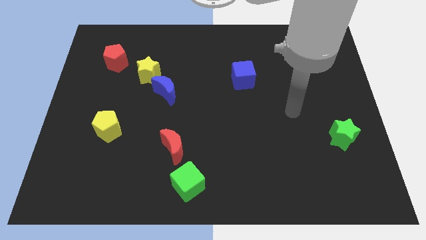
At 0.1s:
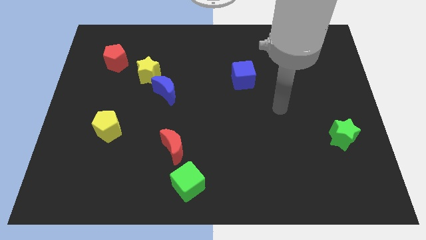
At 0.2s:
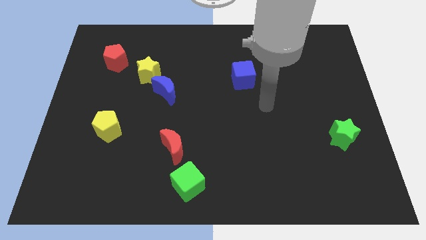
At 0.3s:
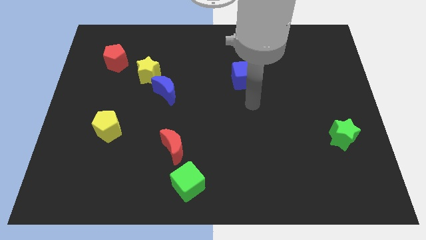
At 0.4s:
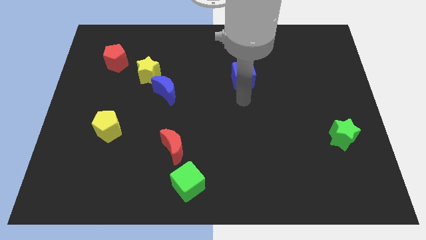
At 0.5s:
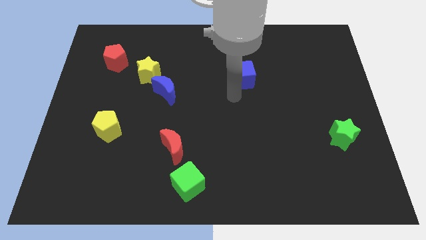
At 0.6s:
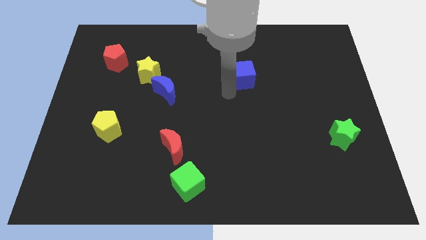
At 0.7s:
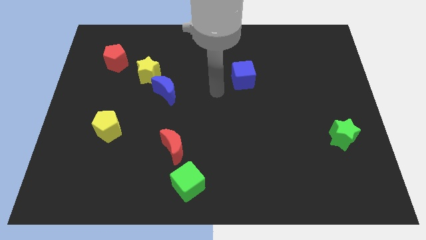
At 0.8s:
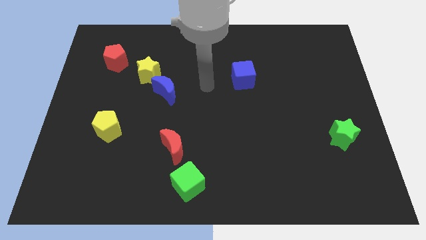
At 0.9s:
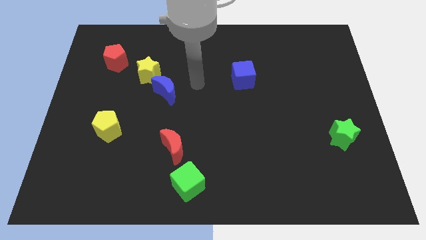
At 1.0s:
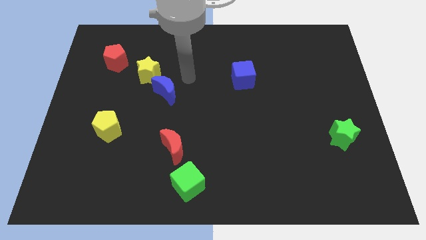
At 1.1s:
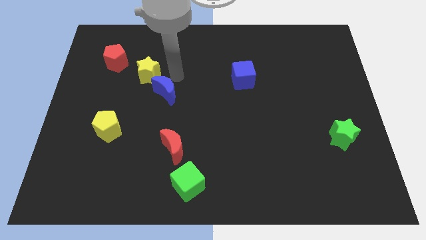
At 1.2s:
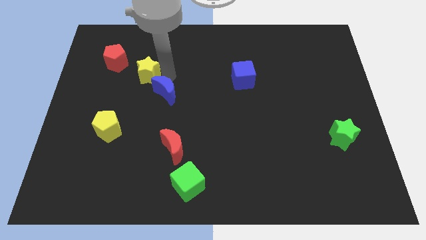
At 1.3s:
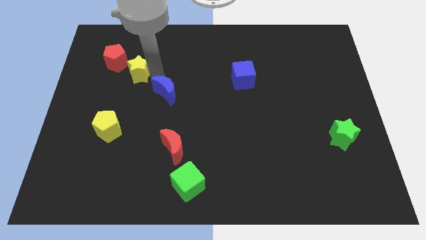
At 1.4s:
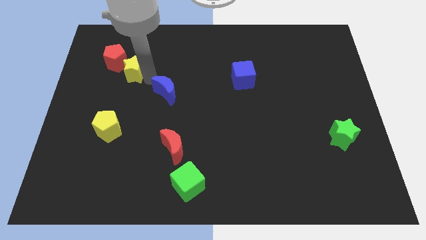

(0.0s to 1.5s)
move the blue moon away from the yellow star

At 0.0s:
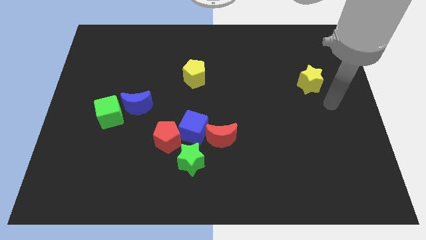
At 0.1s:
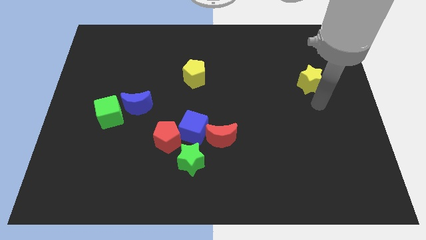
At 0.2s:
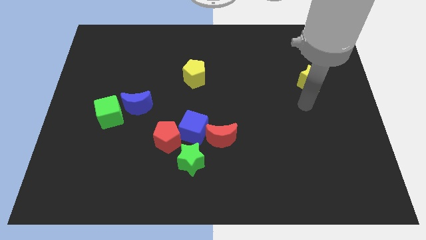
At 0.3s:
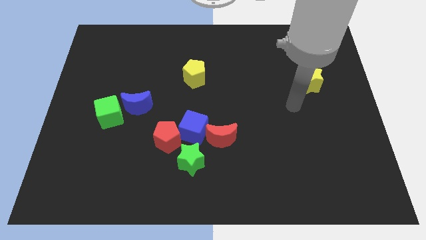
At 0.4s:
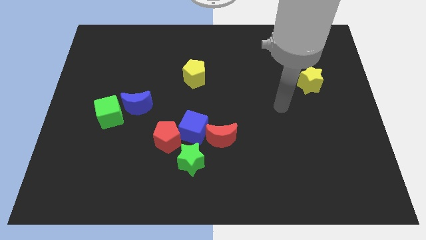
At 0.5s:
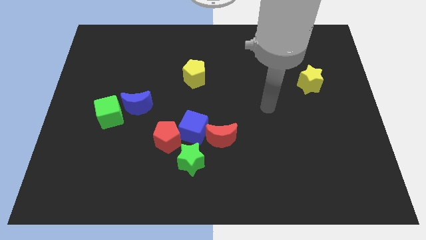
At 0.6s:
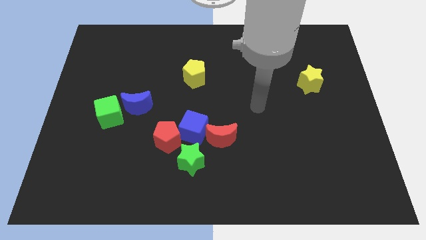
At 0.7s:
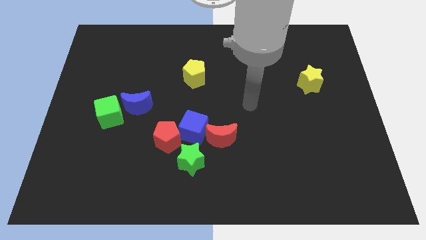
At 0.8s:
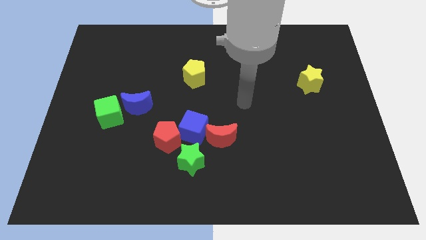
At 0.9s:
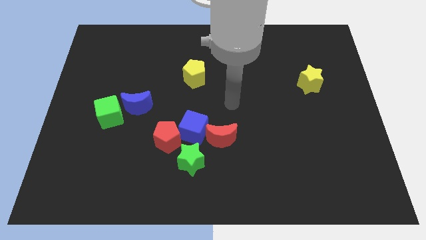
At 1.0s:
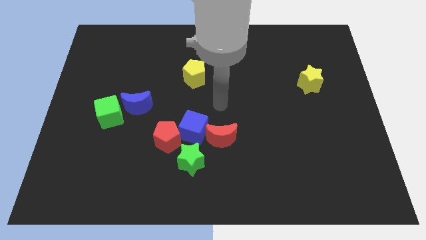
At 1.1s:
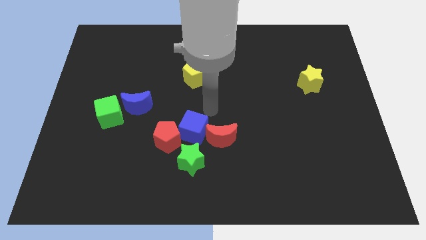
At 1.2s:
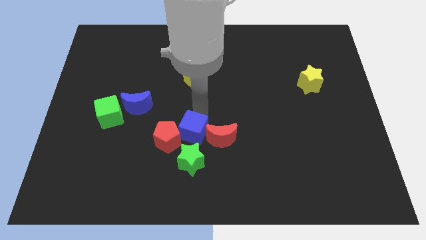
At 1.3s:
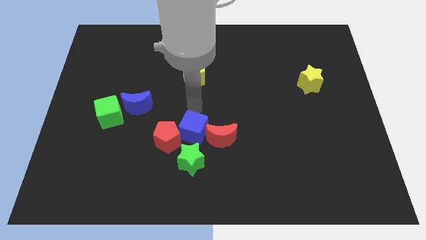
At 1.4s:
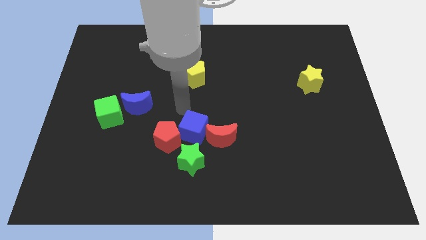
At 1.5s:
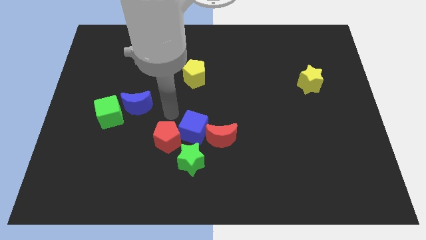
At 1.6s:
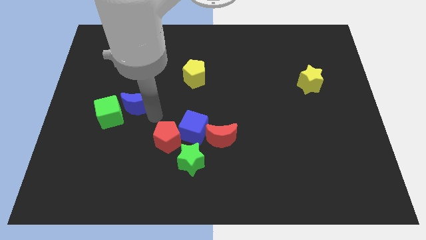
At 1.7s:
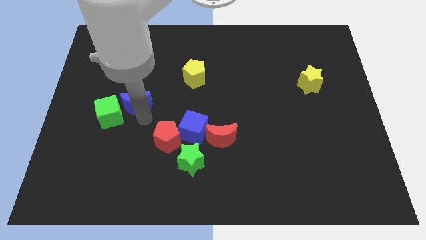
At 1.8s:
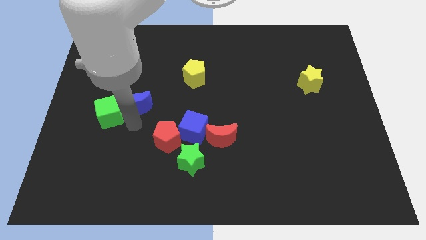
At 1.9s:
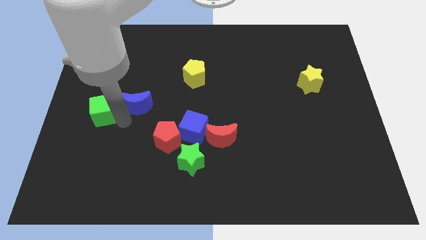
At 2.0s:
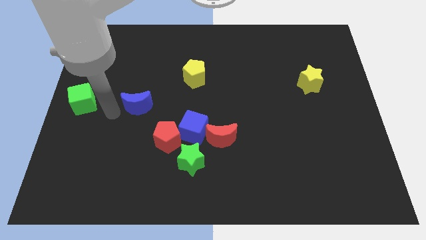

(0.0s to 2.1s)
separate the blue moon from the green cube

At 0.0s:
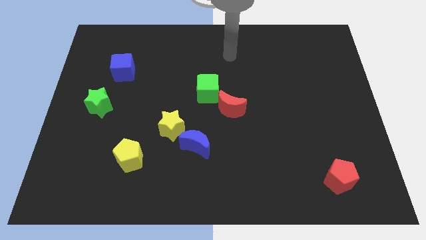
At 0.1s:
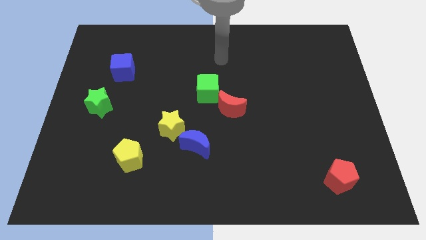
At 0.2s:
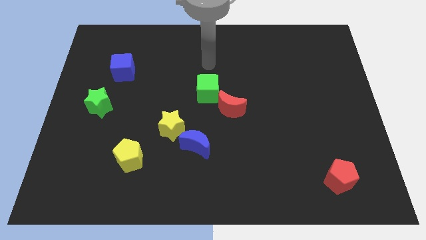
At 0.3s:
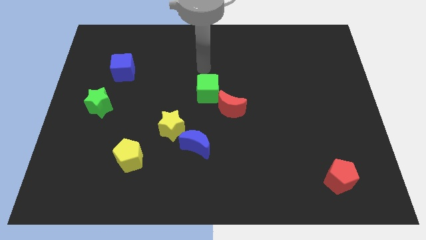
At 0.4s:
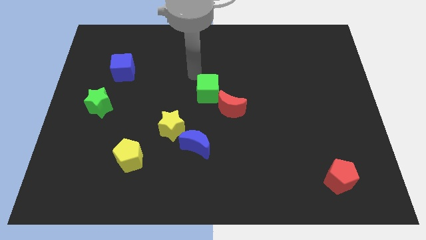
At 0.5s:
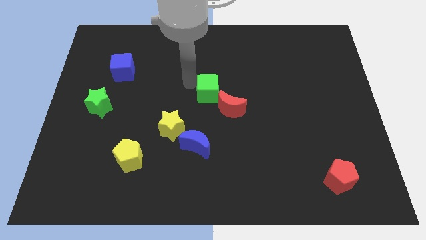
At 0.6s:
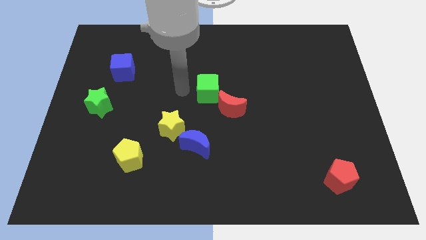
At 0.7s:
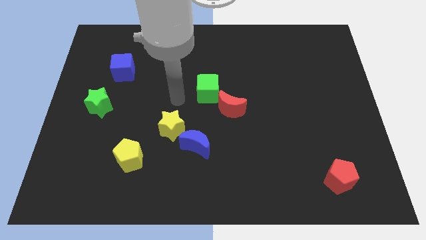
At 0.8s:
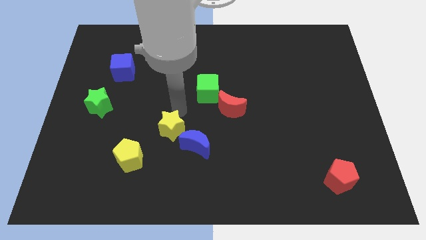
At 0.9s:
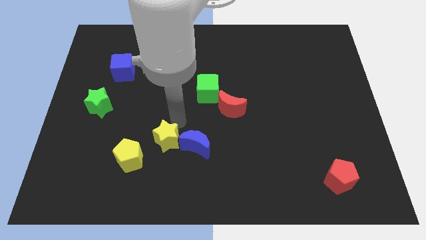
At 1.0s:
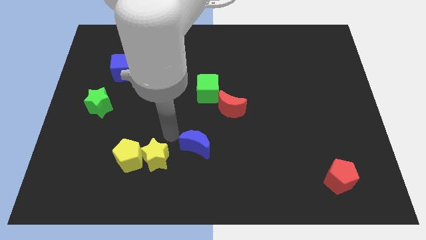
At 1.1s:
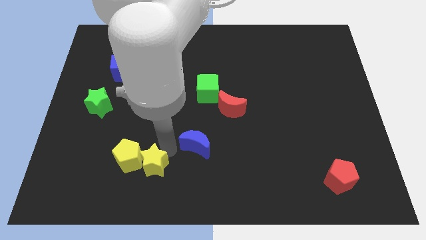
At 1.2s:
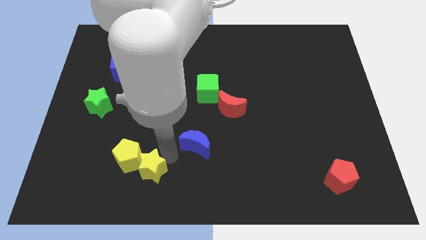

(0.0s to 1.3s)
separate the blue moon from the yellow star

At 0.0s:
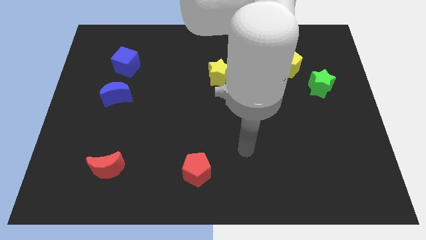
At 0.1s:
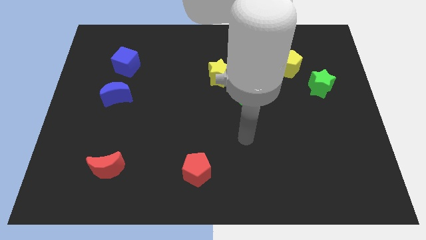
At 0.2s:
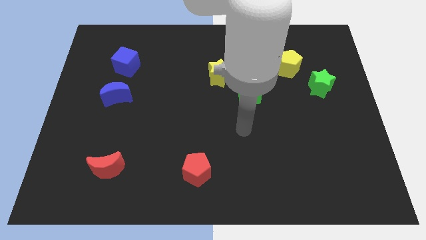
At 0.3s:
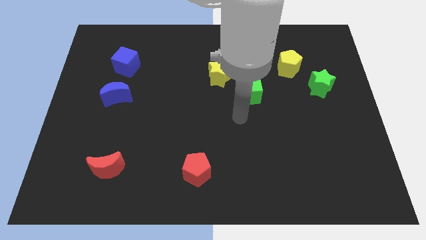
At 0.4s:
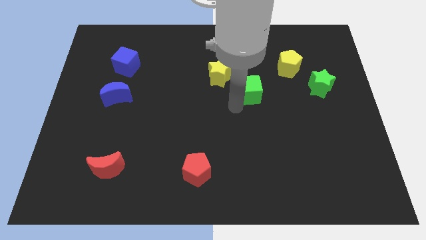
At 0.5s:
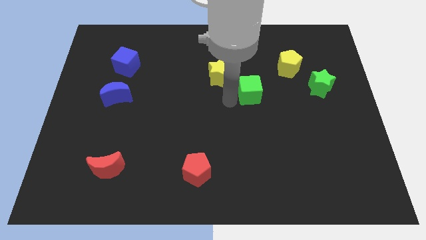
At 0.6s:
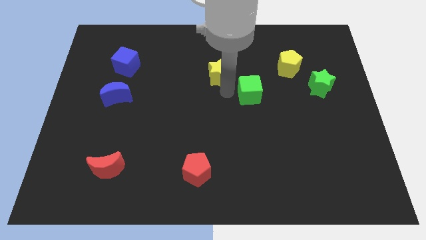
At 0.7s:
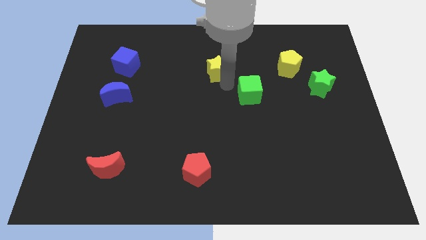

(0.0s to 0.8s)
move the green cube away from the yellow star

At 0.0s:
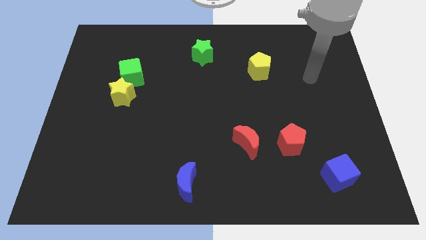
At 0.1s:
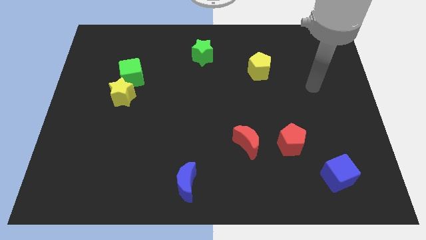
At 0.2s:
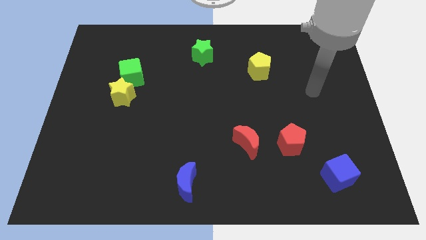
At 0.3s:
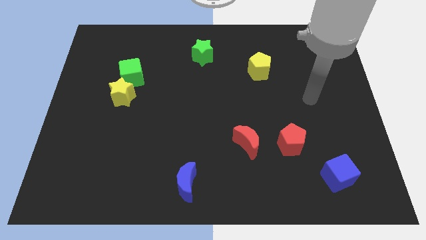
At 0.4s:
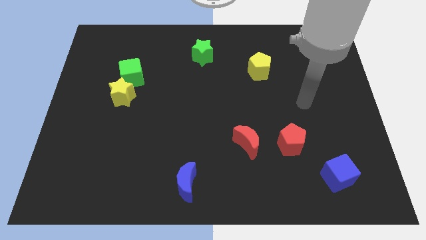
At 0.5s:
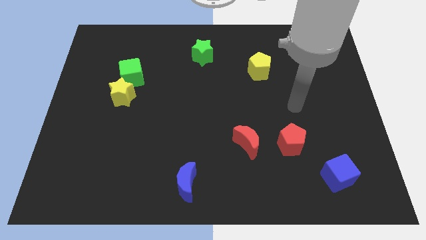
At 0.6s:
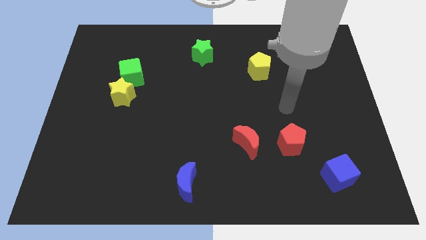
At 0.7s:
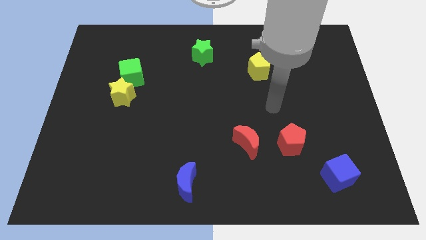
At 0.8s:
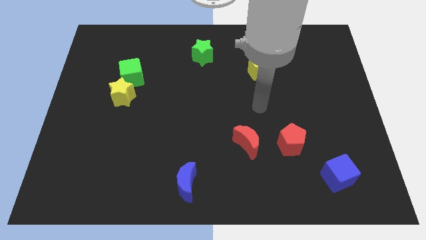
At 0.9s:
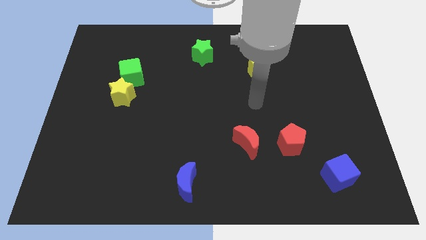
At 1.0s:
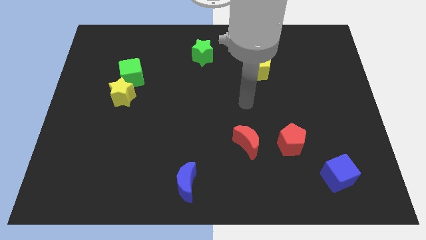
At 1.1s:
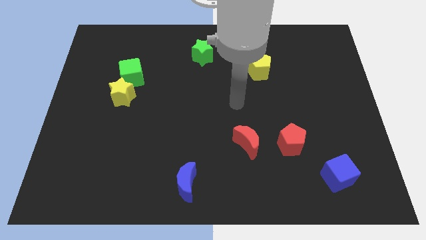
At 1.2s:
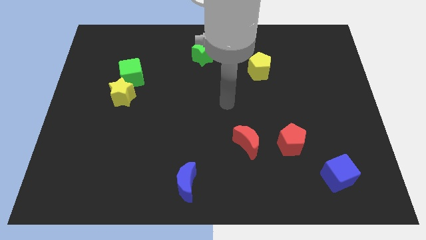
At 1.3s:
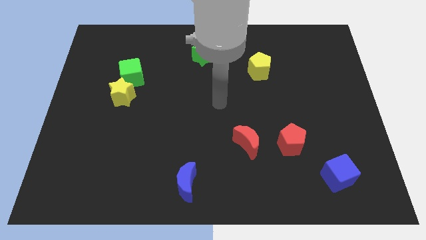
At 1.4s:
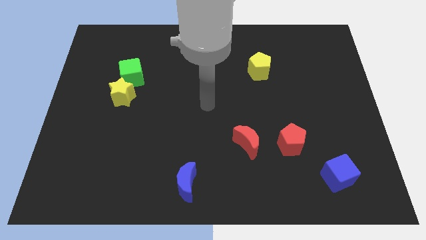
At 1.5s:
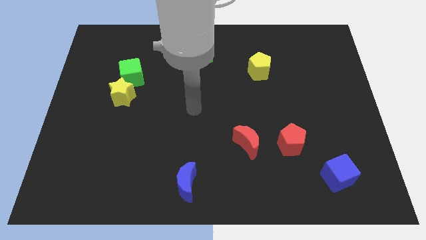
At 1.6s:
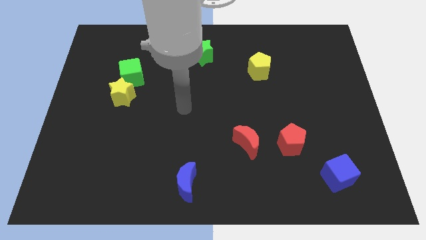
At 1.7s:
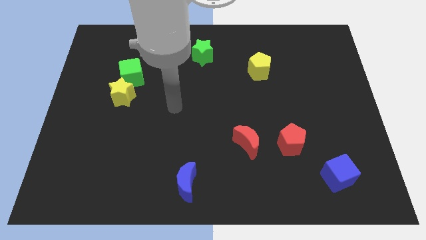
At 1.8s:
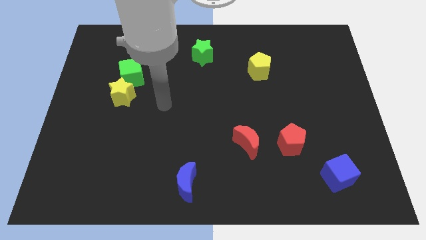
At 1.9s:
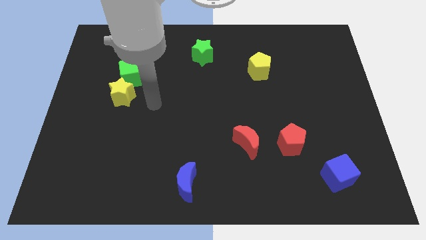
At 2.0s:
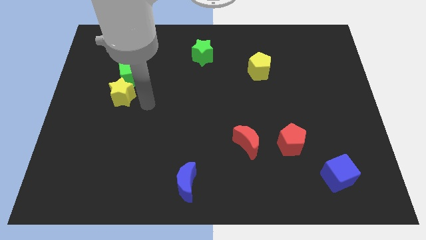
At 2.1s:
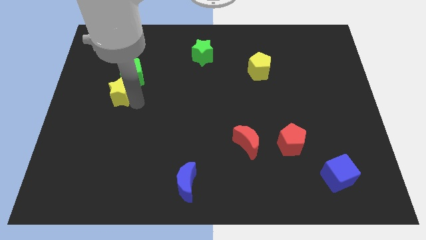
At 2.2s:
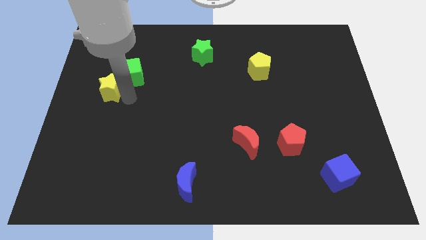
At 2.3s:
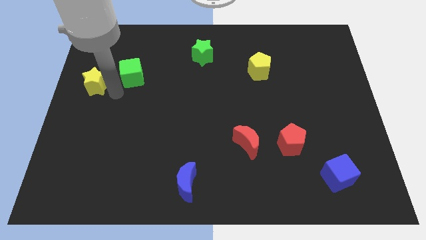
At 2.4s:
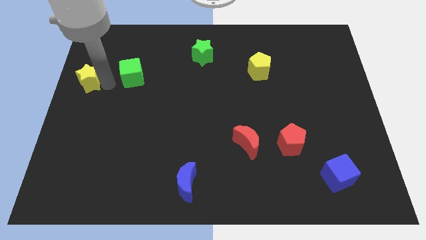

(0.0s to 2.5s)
pull the green cube apart from the yellow star

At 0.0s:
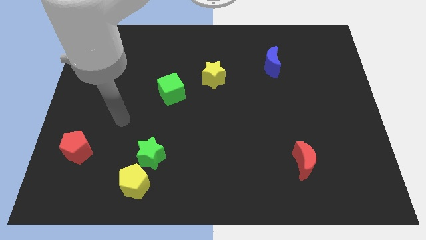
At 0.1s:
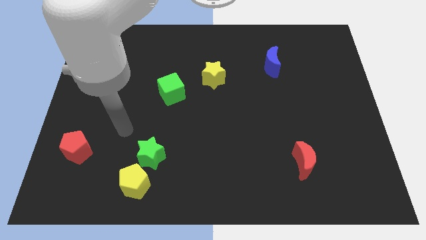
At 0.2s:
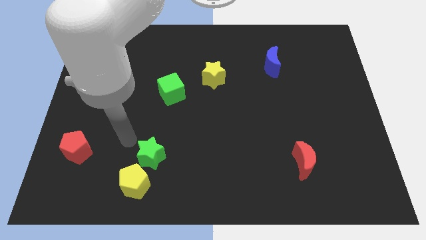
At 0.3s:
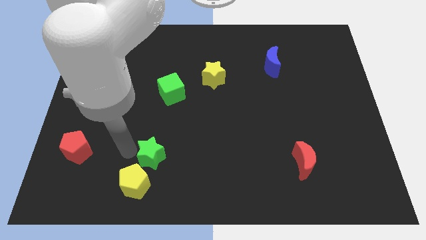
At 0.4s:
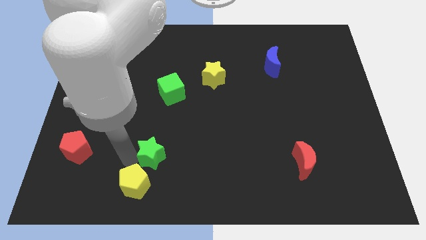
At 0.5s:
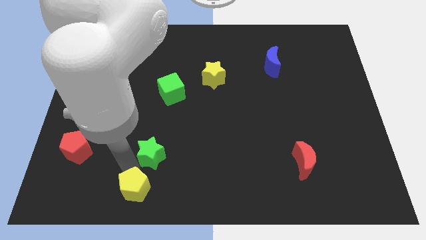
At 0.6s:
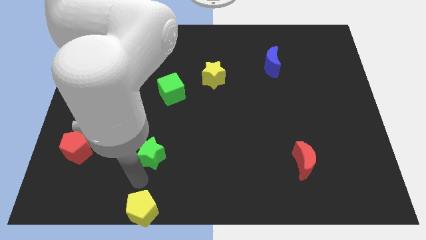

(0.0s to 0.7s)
move the green star away from the yellow pentagon

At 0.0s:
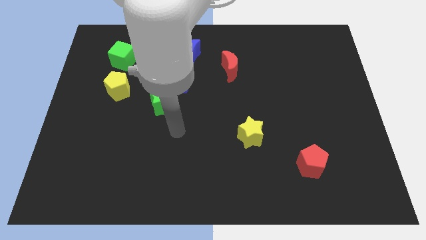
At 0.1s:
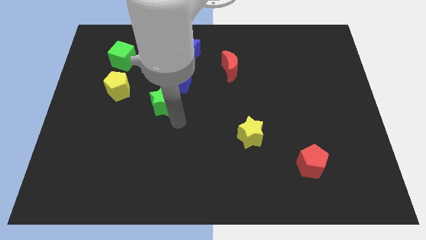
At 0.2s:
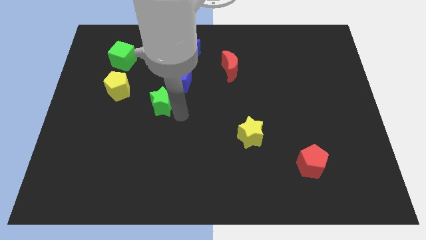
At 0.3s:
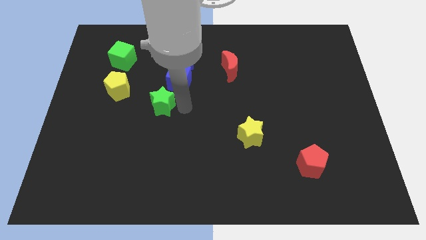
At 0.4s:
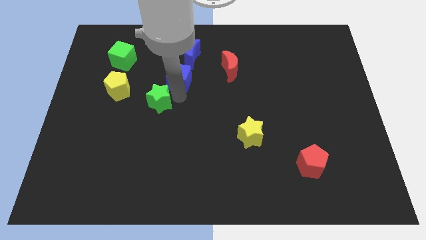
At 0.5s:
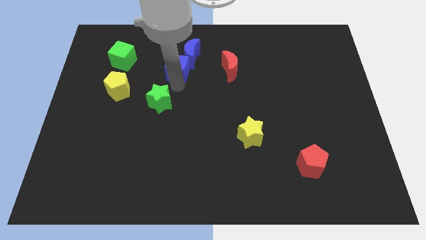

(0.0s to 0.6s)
pull the green star apart from the blue cube
